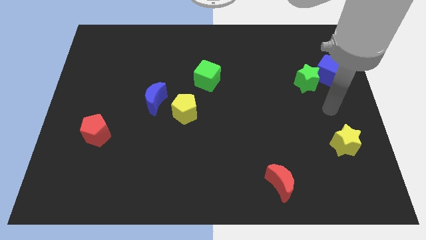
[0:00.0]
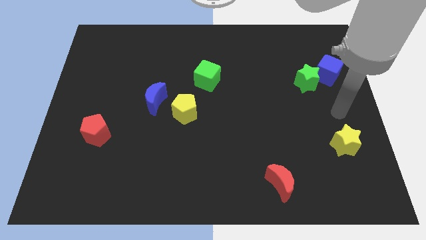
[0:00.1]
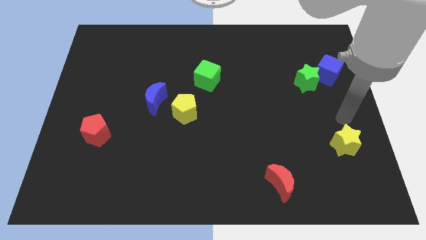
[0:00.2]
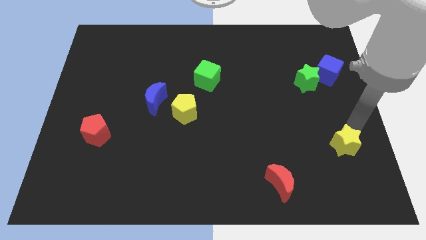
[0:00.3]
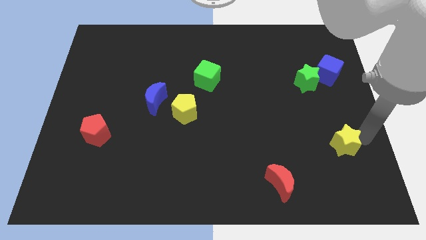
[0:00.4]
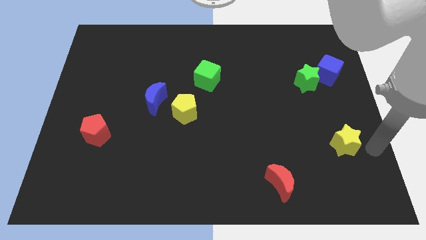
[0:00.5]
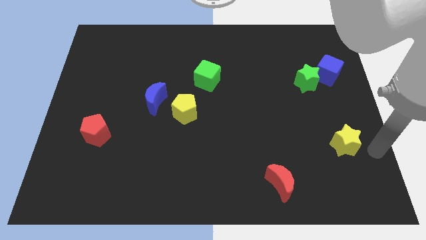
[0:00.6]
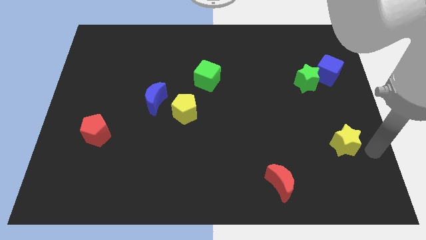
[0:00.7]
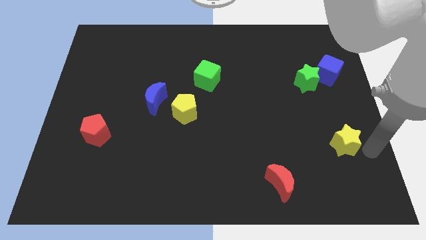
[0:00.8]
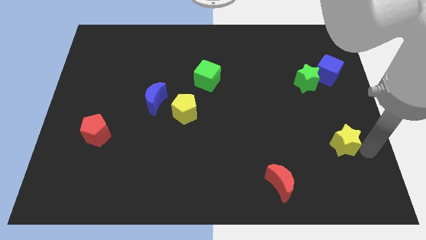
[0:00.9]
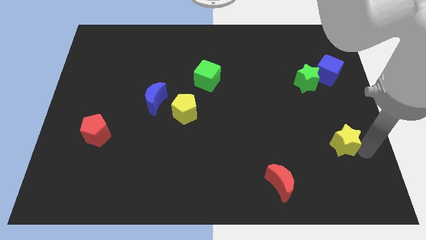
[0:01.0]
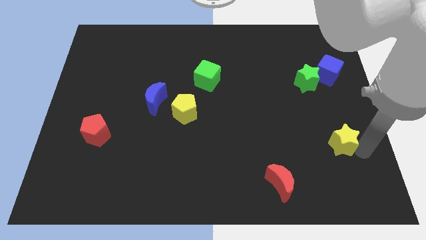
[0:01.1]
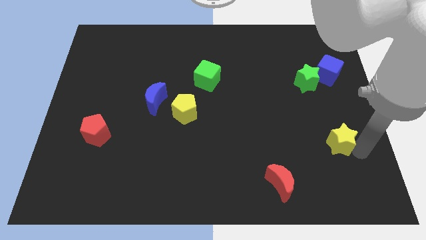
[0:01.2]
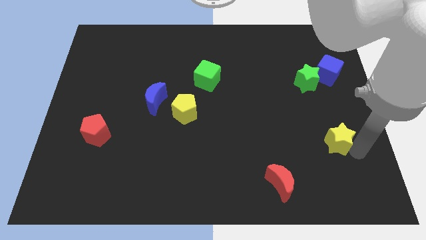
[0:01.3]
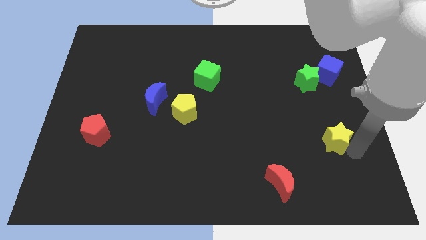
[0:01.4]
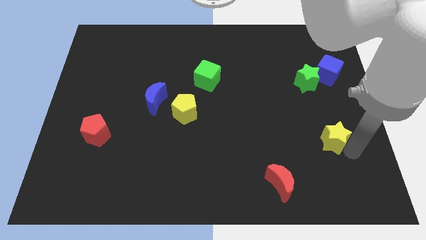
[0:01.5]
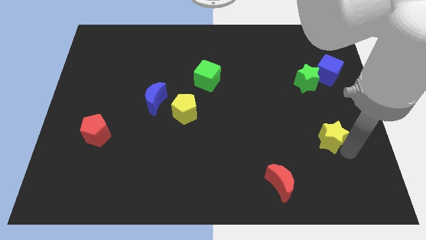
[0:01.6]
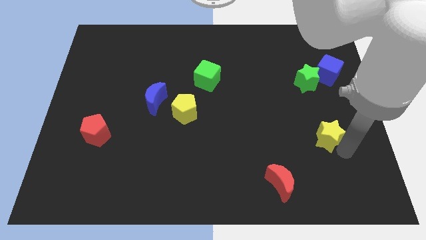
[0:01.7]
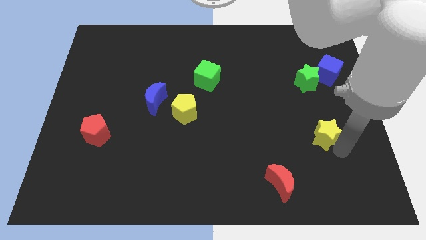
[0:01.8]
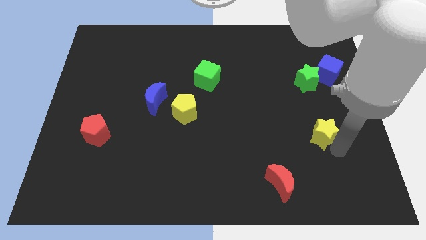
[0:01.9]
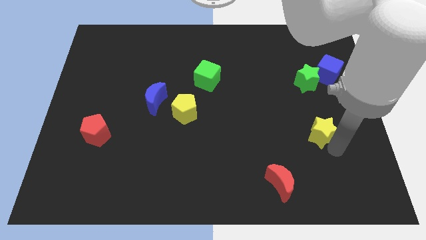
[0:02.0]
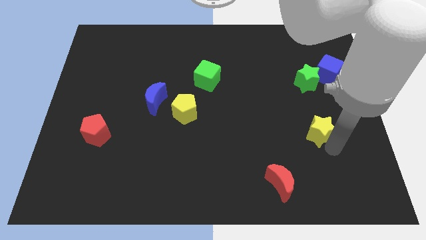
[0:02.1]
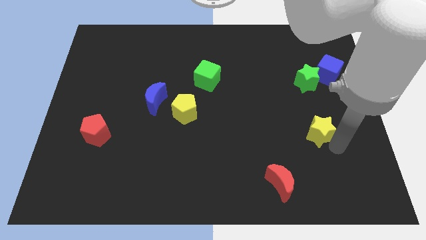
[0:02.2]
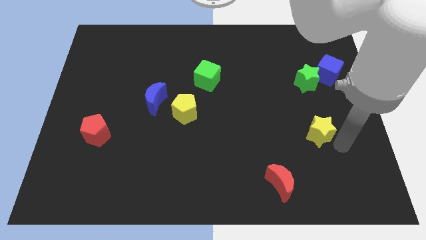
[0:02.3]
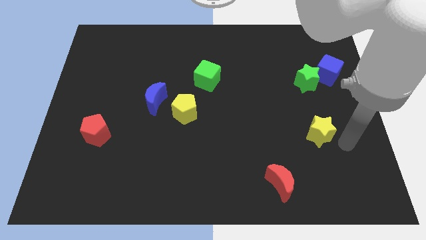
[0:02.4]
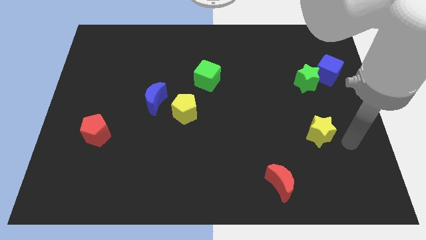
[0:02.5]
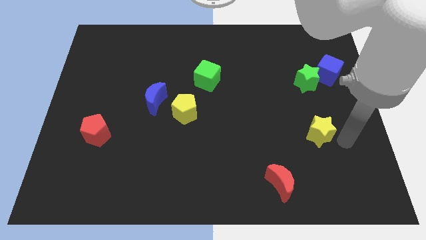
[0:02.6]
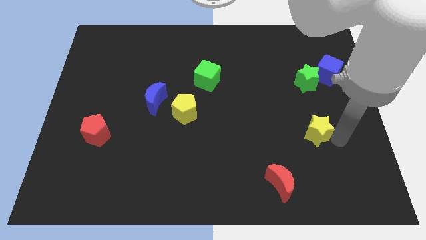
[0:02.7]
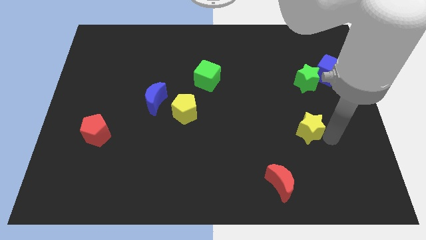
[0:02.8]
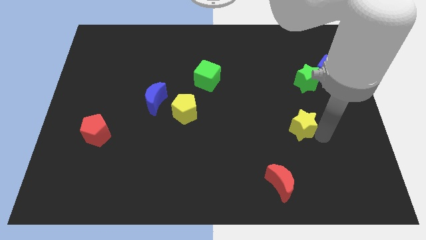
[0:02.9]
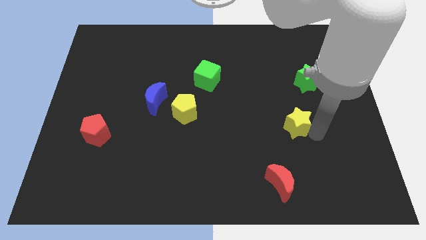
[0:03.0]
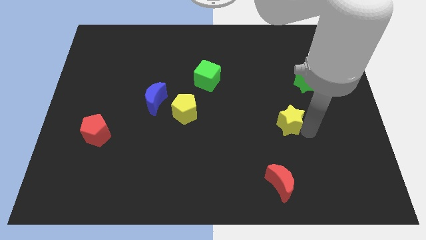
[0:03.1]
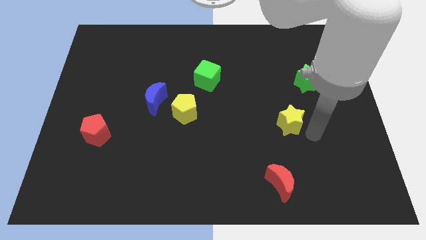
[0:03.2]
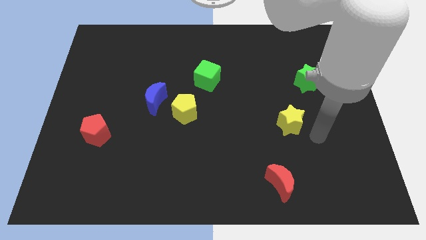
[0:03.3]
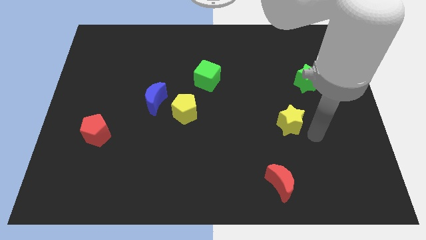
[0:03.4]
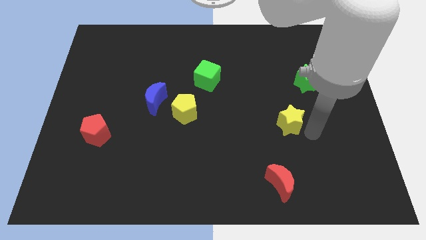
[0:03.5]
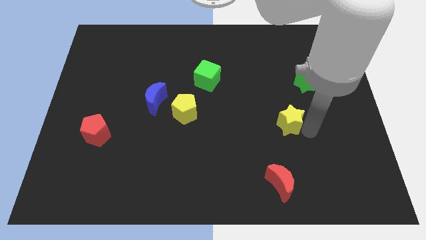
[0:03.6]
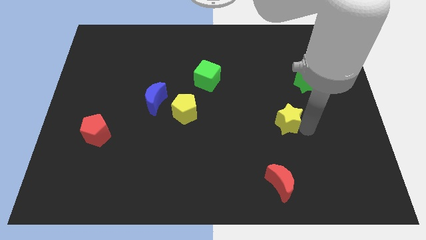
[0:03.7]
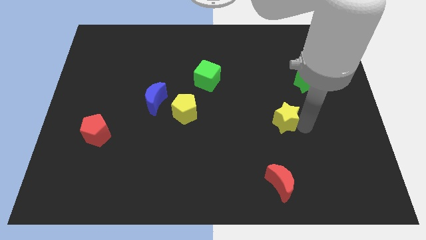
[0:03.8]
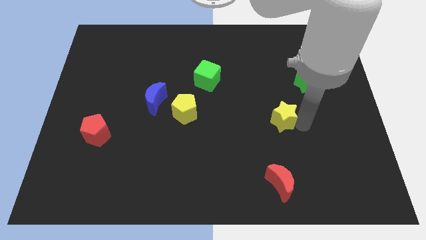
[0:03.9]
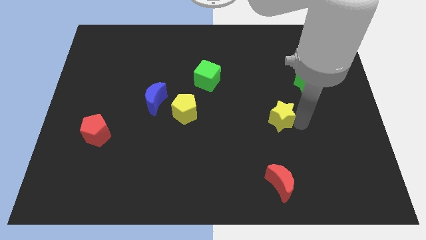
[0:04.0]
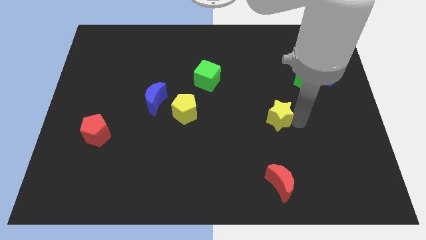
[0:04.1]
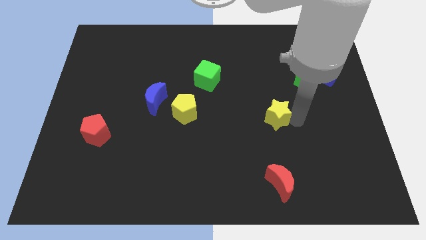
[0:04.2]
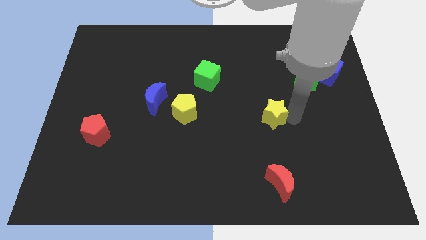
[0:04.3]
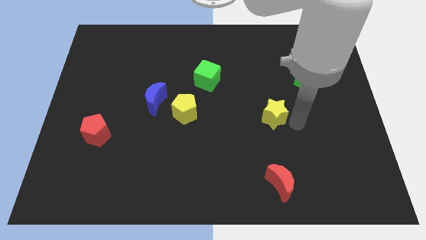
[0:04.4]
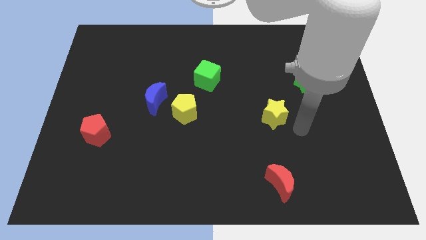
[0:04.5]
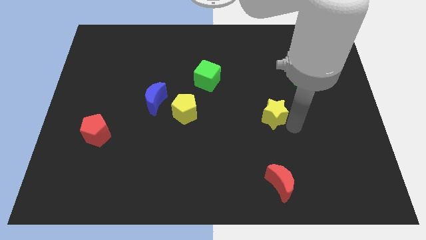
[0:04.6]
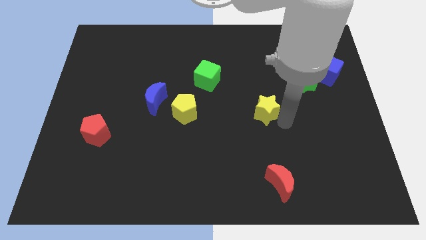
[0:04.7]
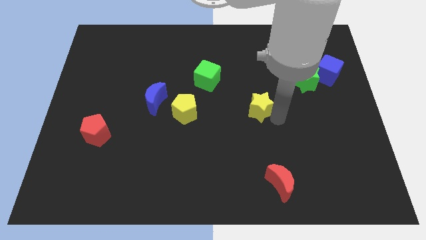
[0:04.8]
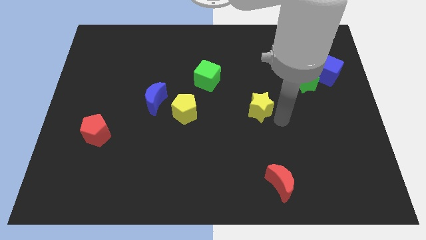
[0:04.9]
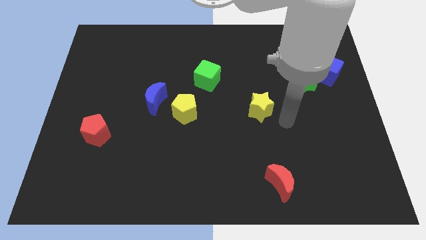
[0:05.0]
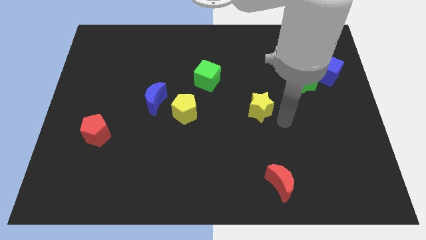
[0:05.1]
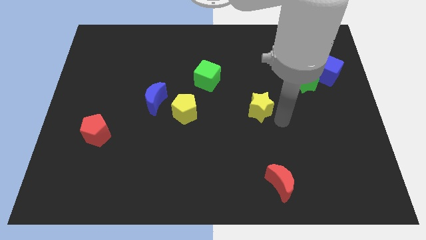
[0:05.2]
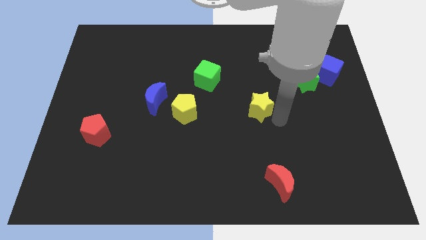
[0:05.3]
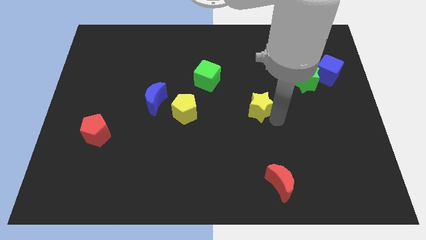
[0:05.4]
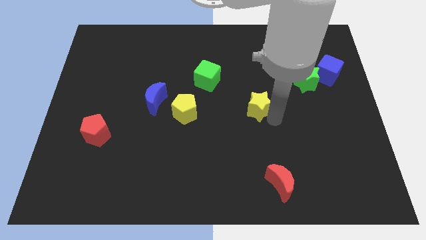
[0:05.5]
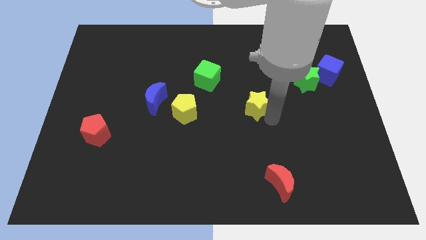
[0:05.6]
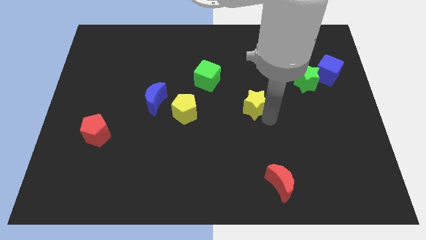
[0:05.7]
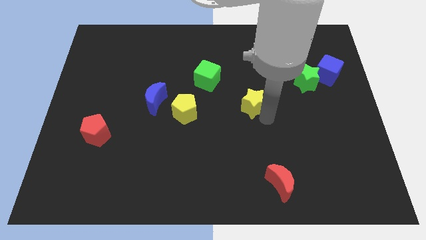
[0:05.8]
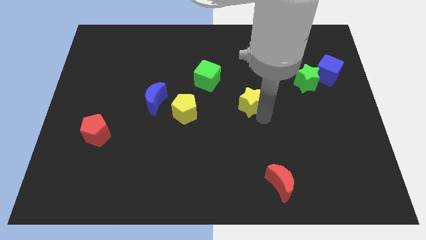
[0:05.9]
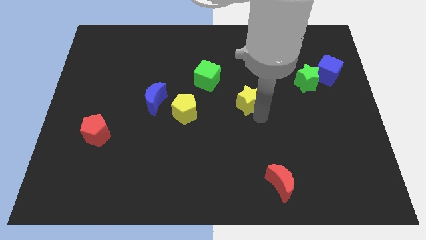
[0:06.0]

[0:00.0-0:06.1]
put the yellow star to the bottom right side of the green cube
